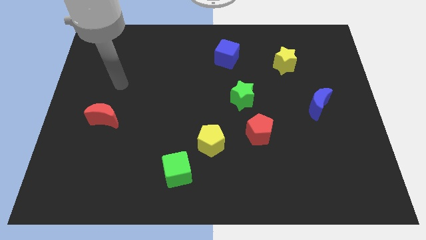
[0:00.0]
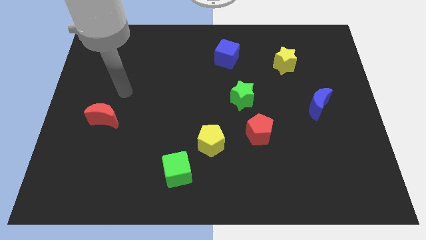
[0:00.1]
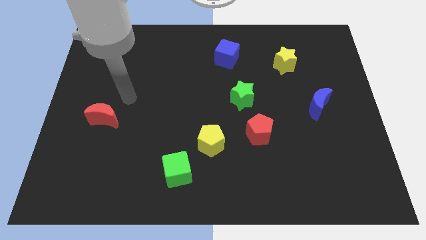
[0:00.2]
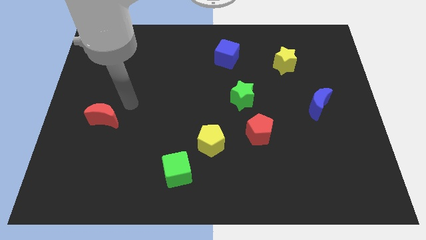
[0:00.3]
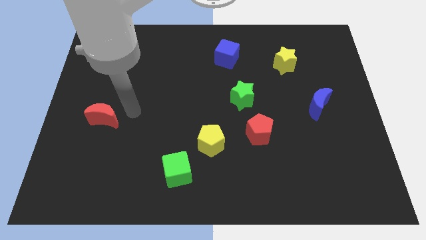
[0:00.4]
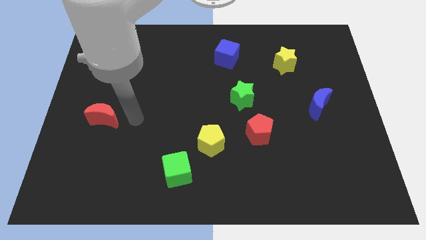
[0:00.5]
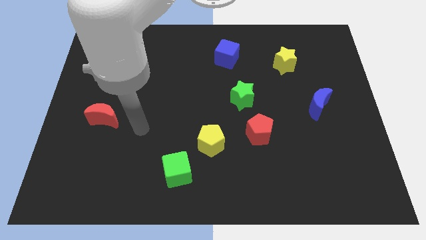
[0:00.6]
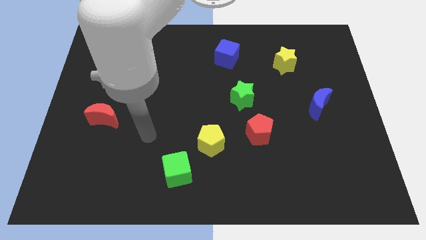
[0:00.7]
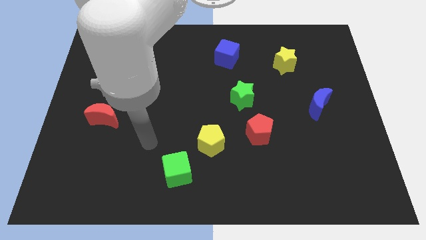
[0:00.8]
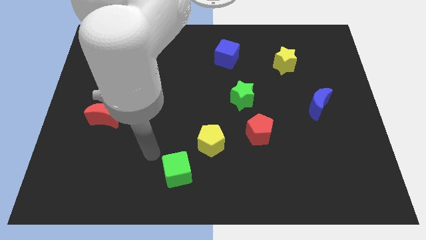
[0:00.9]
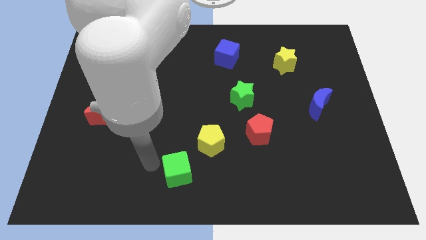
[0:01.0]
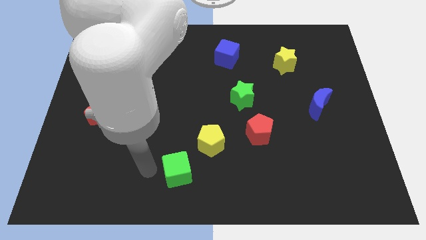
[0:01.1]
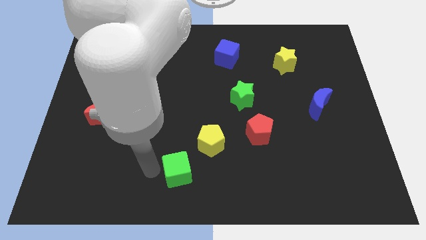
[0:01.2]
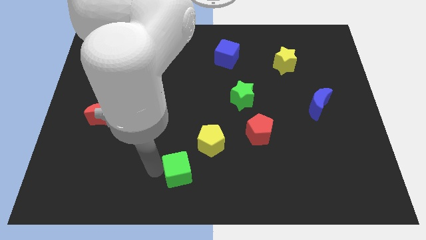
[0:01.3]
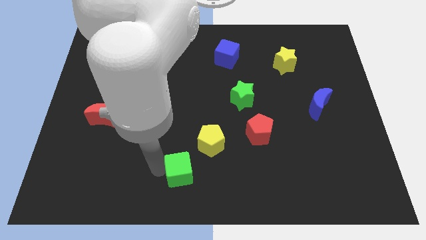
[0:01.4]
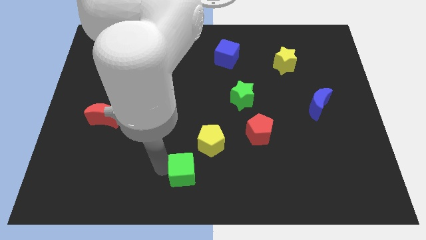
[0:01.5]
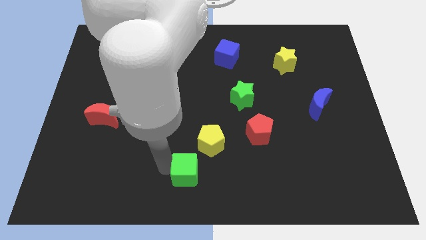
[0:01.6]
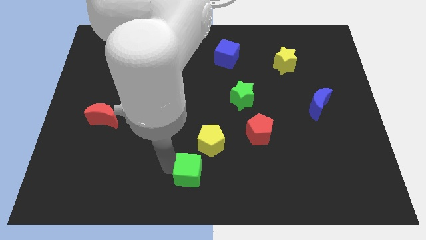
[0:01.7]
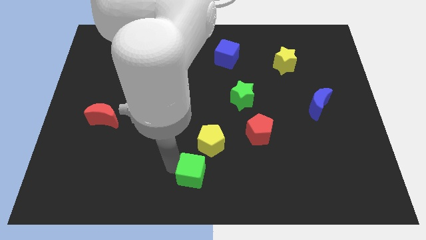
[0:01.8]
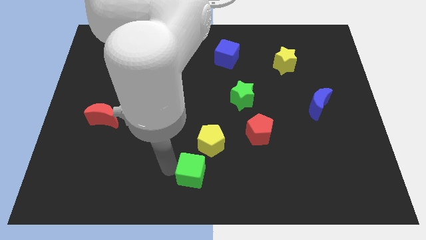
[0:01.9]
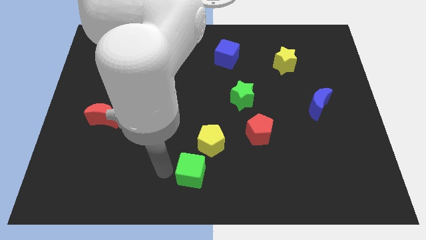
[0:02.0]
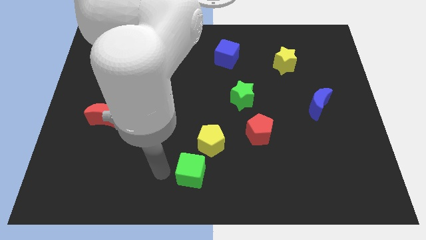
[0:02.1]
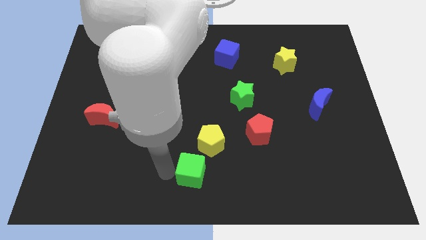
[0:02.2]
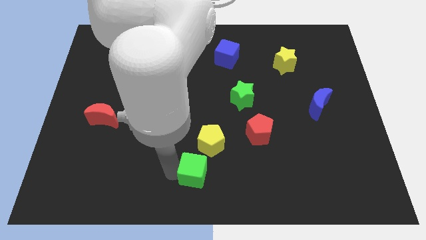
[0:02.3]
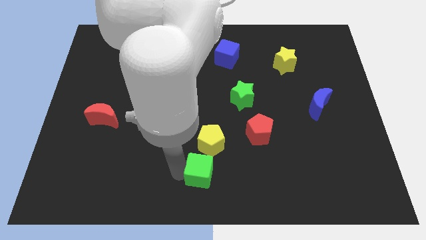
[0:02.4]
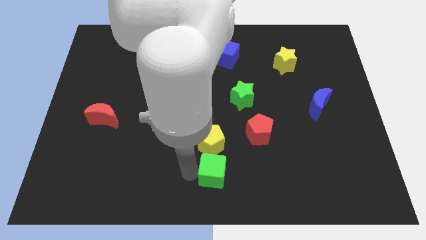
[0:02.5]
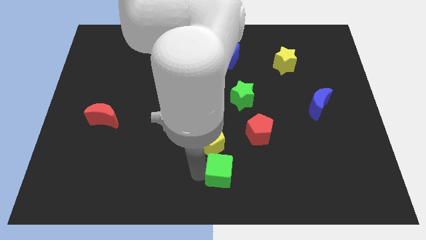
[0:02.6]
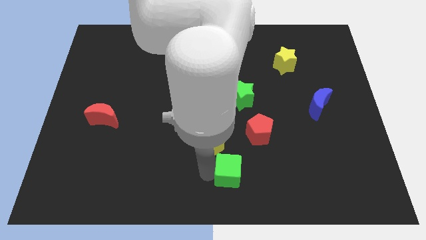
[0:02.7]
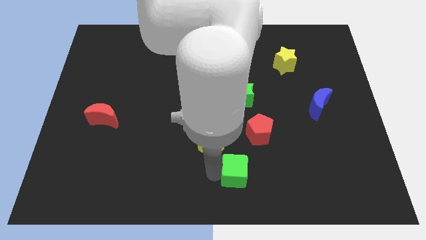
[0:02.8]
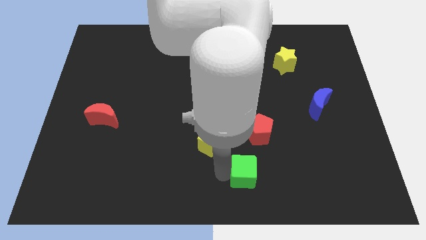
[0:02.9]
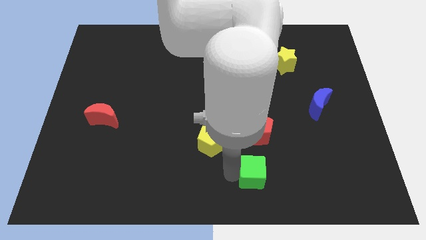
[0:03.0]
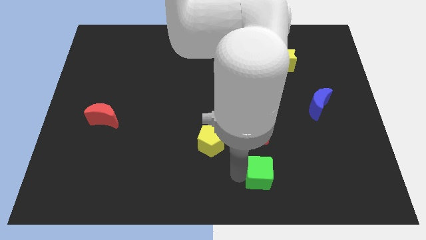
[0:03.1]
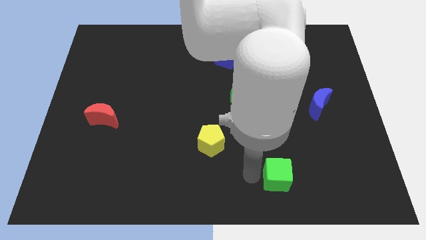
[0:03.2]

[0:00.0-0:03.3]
slide the green cube to the right

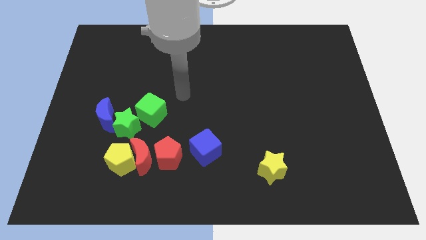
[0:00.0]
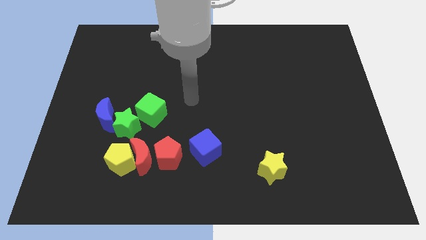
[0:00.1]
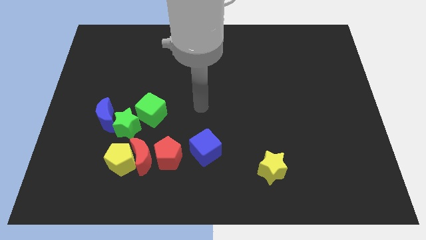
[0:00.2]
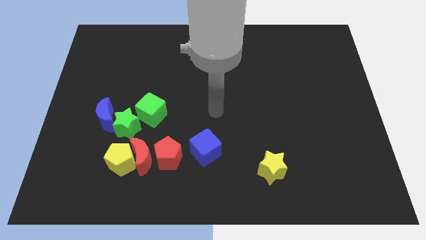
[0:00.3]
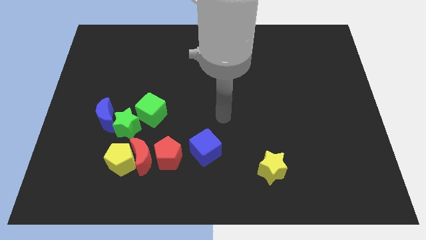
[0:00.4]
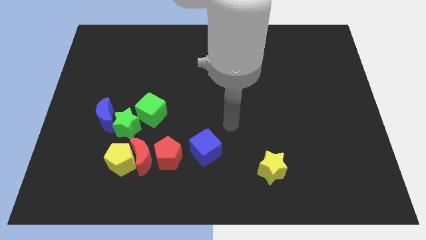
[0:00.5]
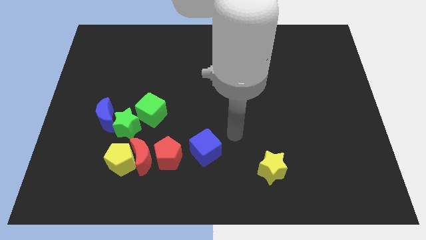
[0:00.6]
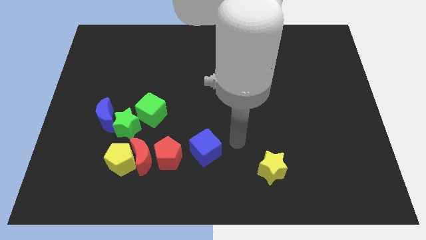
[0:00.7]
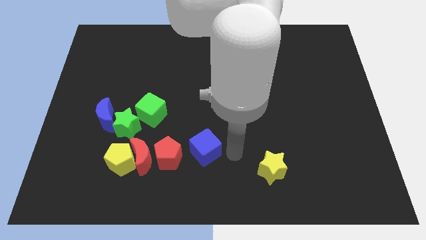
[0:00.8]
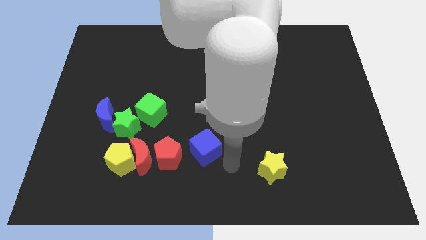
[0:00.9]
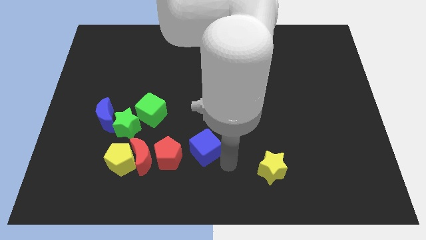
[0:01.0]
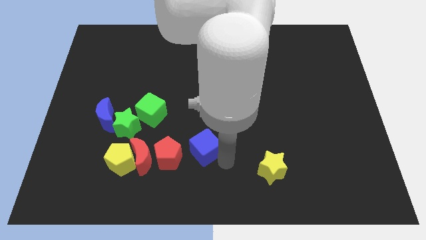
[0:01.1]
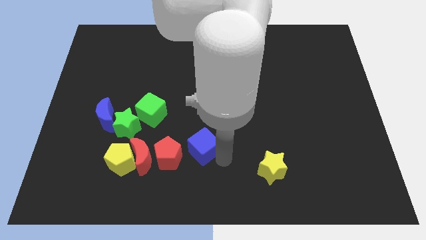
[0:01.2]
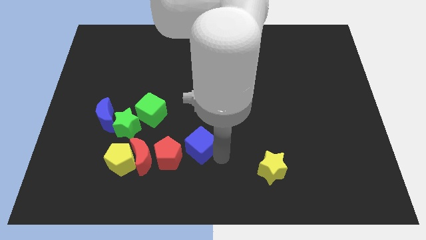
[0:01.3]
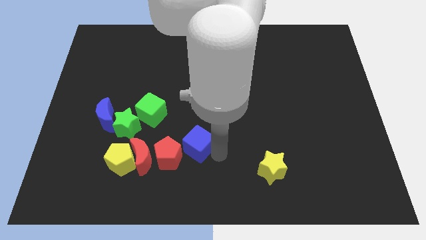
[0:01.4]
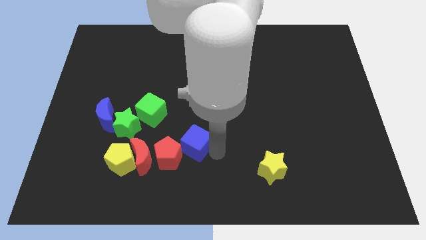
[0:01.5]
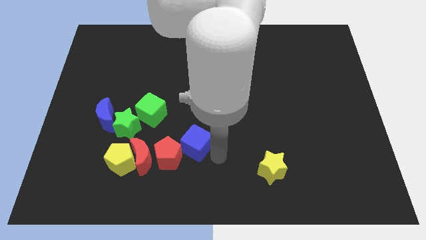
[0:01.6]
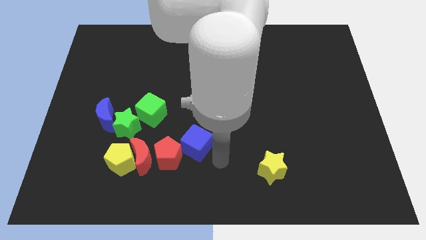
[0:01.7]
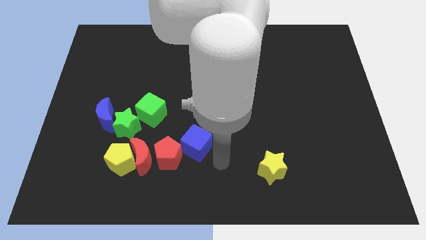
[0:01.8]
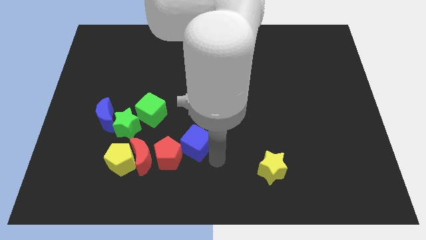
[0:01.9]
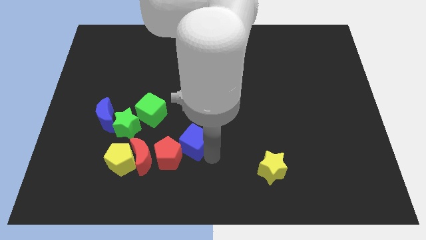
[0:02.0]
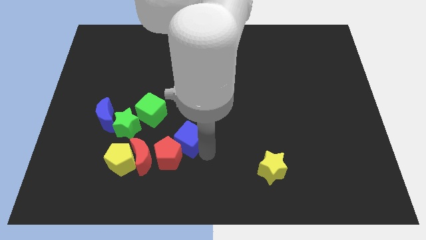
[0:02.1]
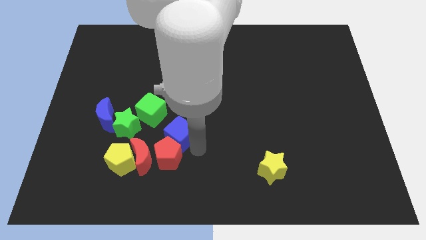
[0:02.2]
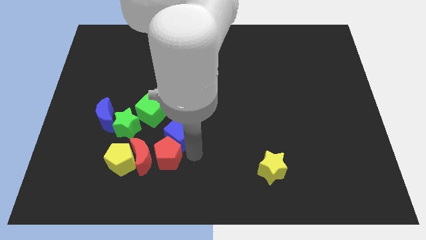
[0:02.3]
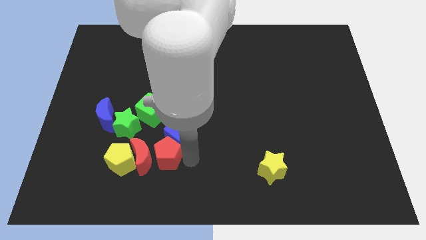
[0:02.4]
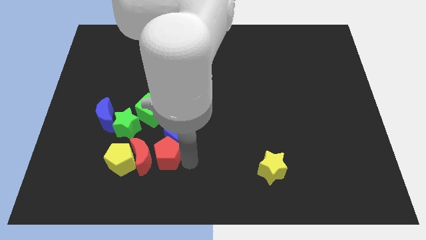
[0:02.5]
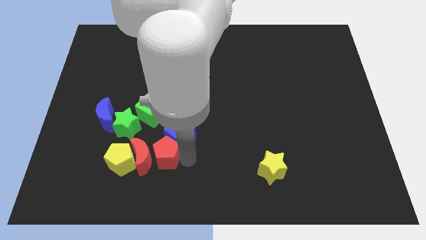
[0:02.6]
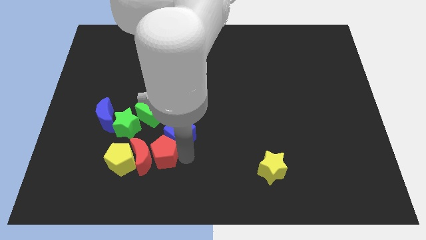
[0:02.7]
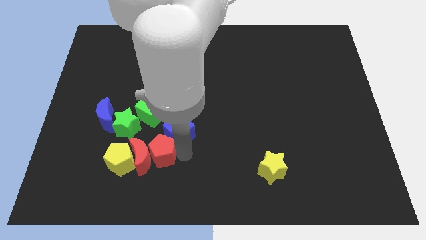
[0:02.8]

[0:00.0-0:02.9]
move the blue cube up and to the left somewhat

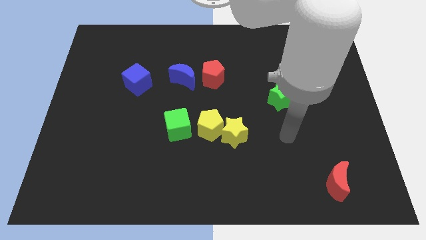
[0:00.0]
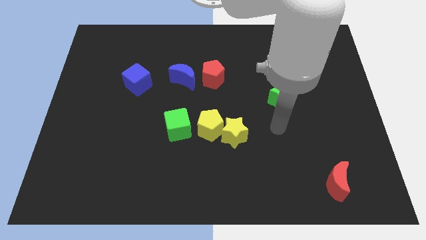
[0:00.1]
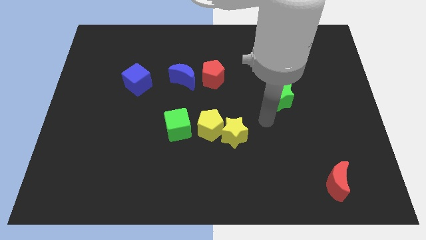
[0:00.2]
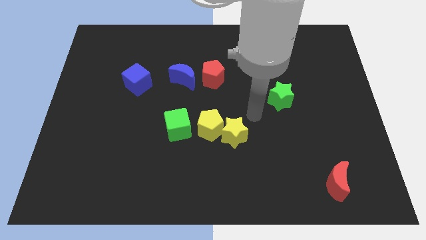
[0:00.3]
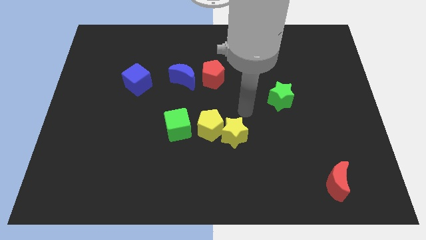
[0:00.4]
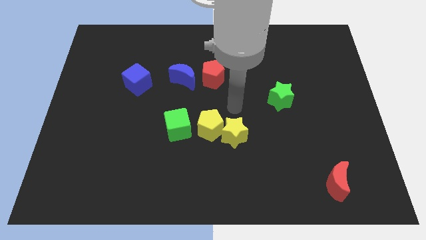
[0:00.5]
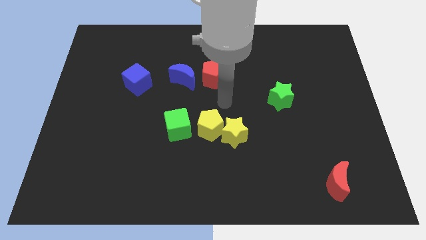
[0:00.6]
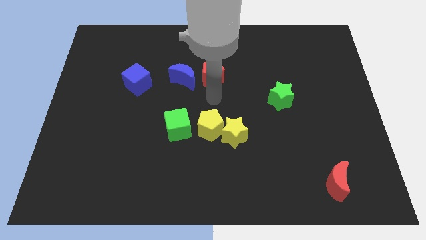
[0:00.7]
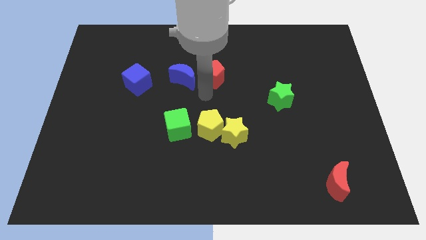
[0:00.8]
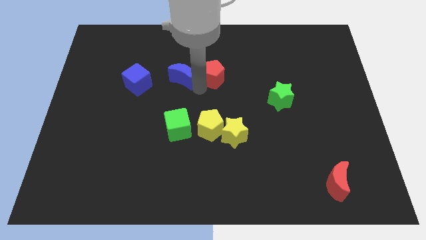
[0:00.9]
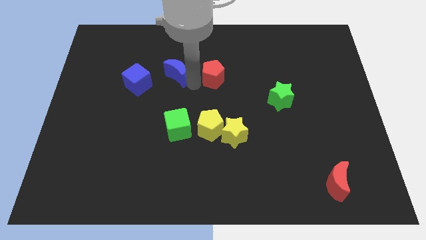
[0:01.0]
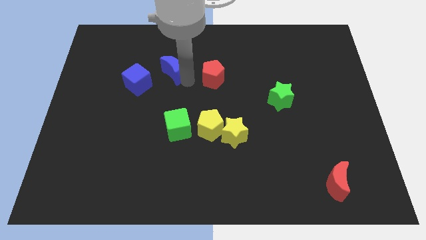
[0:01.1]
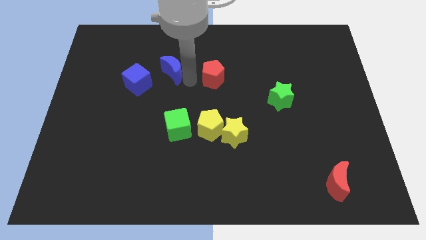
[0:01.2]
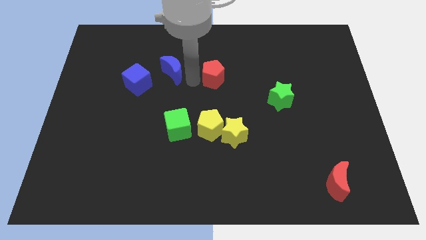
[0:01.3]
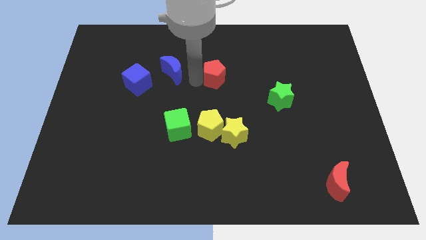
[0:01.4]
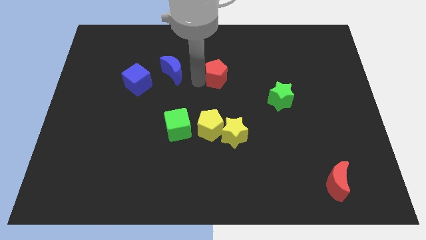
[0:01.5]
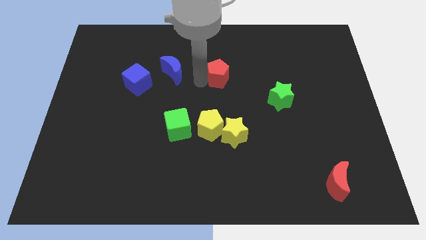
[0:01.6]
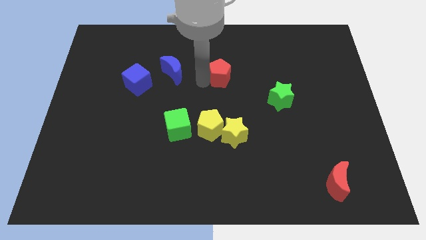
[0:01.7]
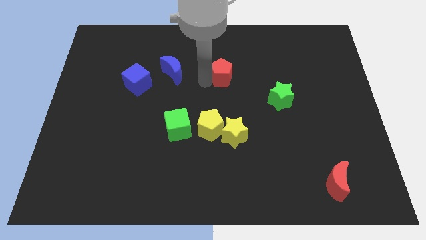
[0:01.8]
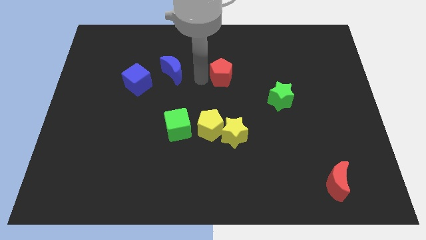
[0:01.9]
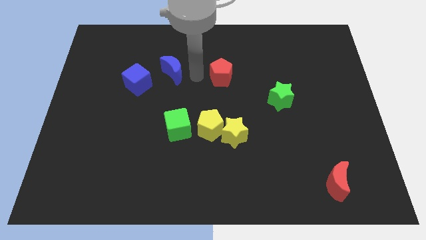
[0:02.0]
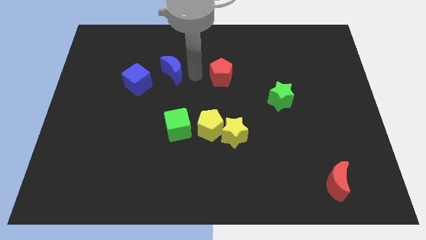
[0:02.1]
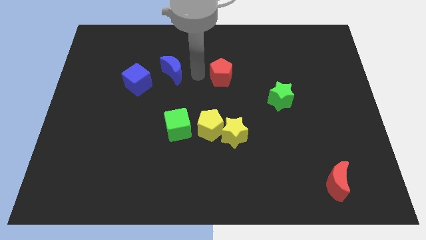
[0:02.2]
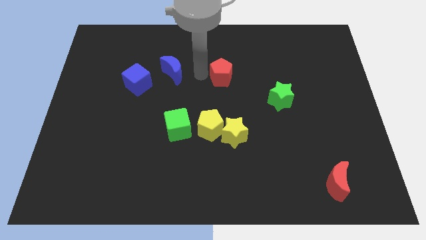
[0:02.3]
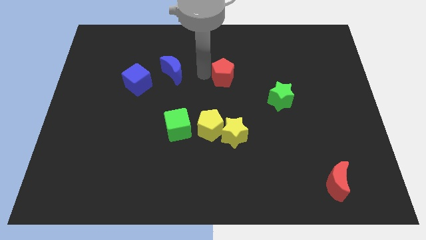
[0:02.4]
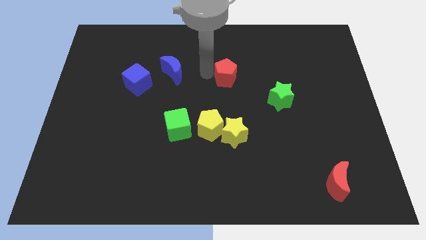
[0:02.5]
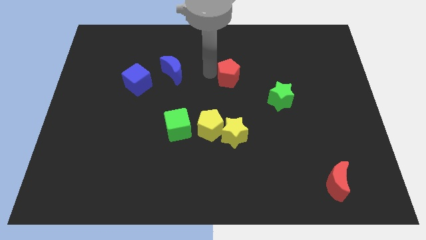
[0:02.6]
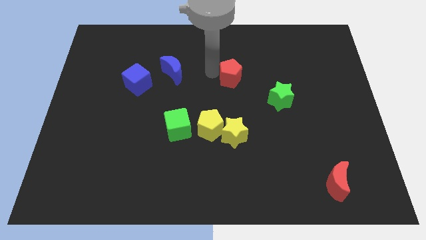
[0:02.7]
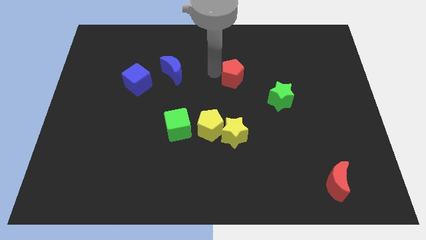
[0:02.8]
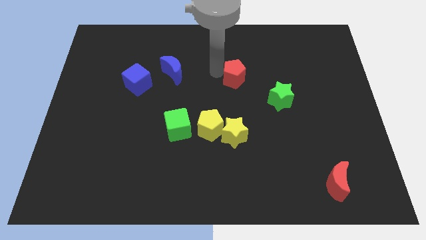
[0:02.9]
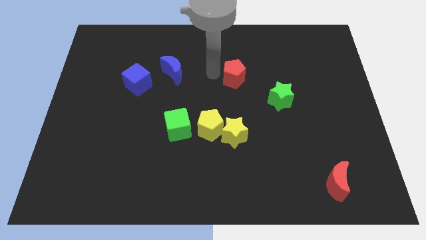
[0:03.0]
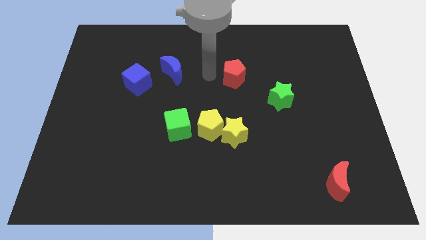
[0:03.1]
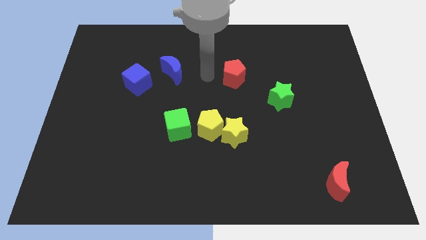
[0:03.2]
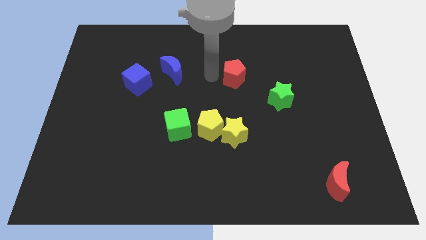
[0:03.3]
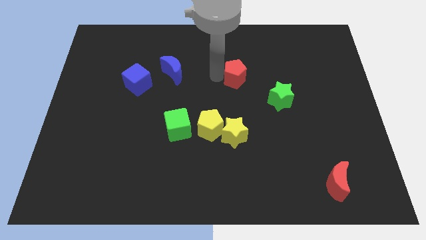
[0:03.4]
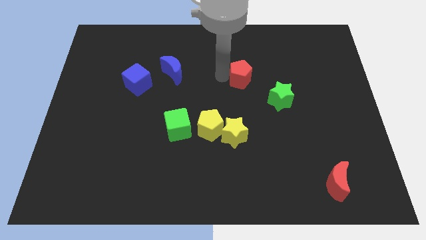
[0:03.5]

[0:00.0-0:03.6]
slide the red pentagon a little to the right
